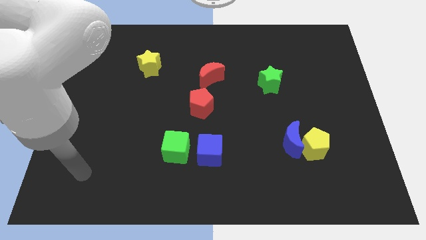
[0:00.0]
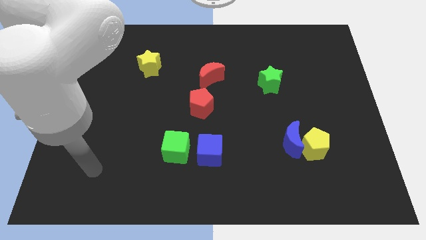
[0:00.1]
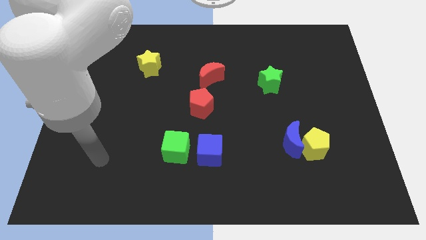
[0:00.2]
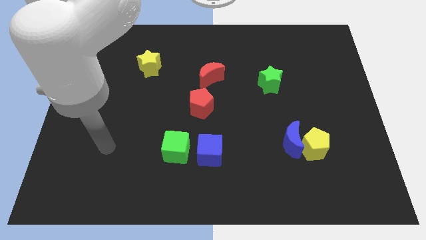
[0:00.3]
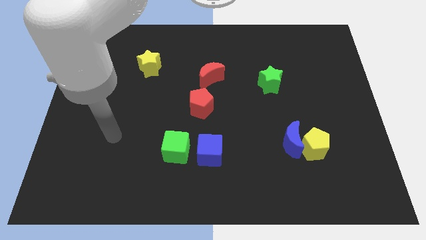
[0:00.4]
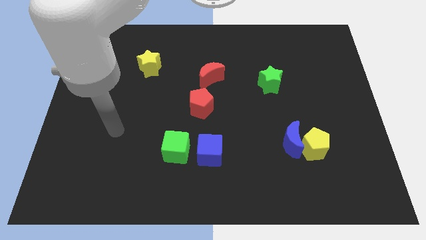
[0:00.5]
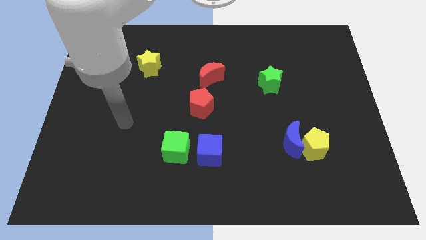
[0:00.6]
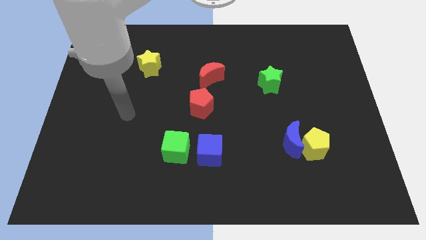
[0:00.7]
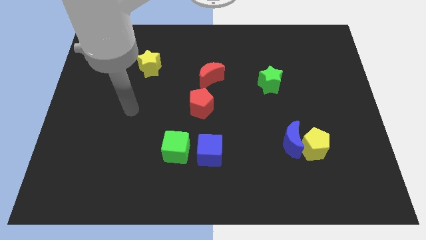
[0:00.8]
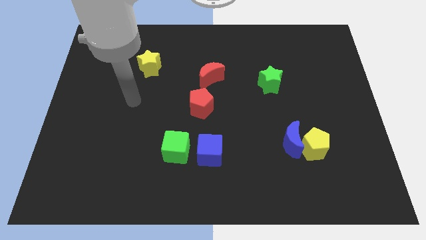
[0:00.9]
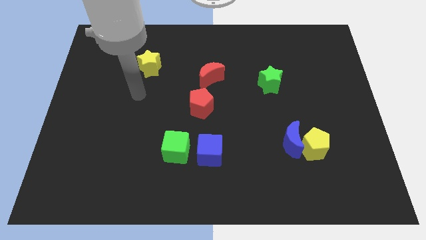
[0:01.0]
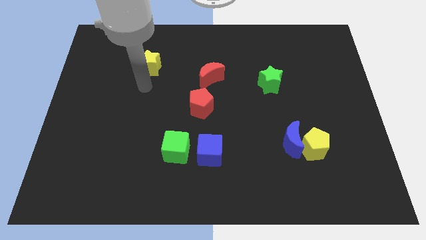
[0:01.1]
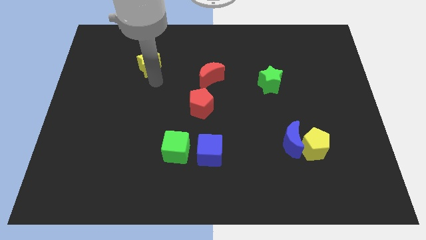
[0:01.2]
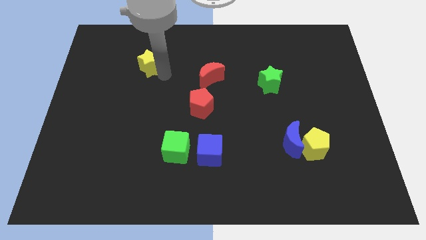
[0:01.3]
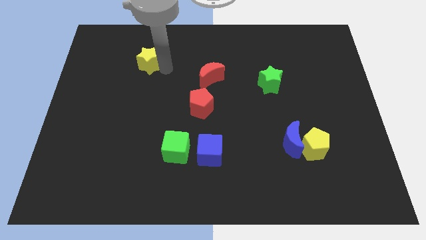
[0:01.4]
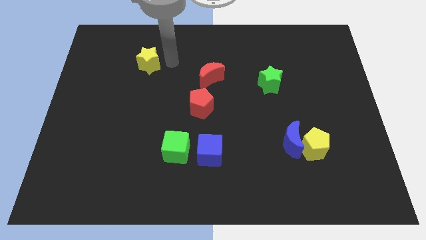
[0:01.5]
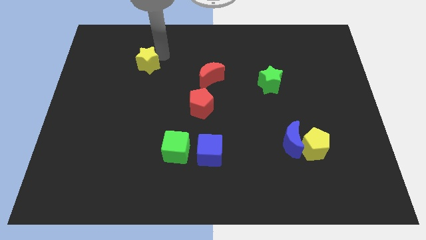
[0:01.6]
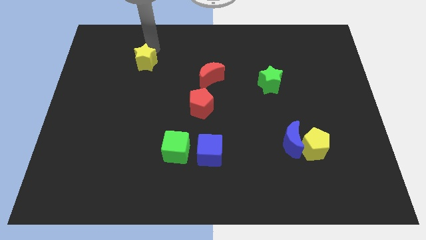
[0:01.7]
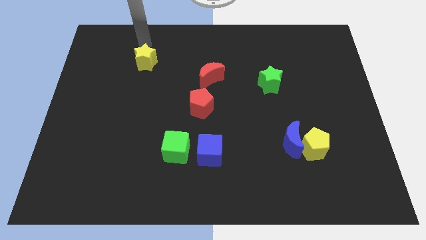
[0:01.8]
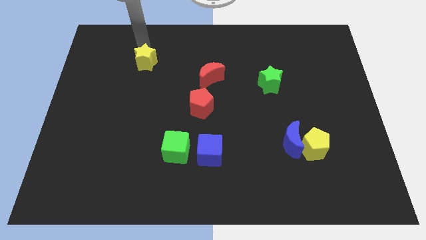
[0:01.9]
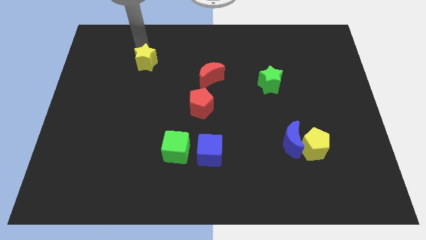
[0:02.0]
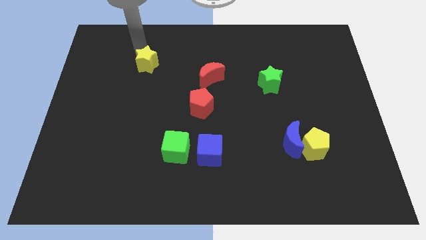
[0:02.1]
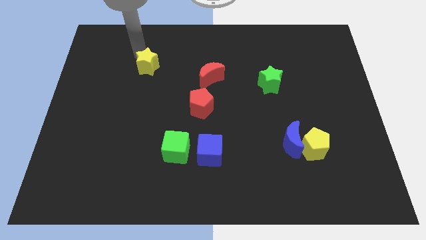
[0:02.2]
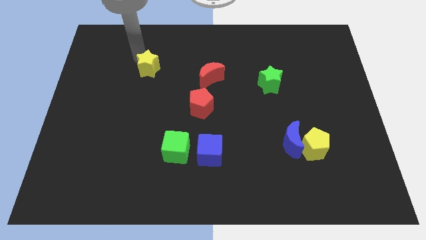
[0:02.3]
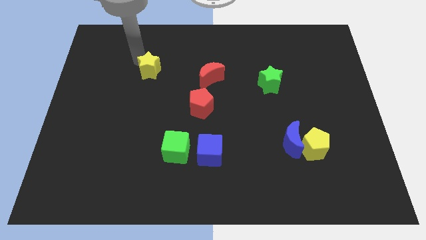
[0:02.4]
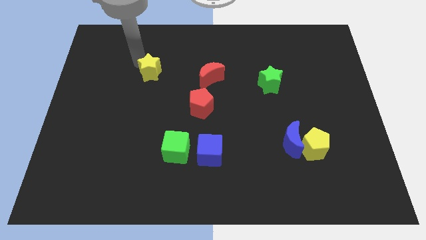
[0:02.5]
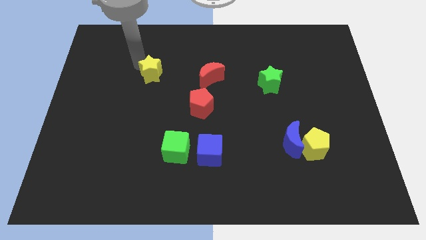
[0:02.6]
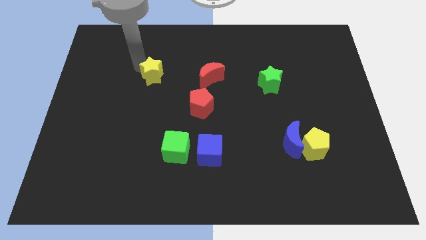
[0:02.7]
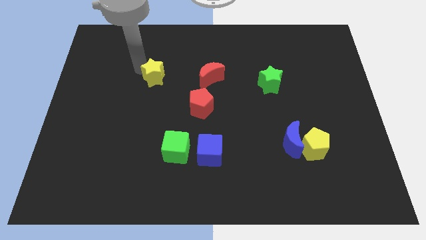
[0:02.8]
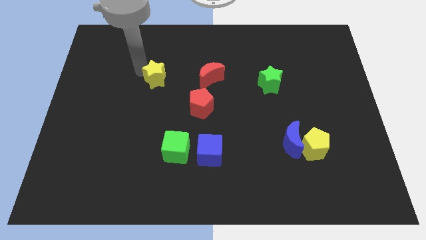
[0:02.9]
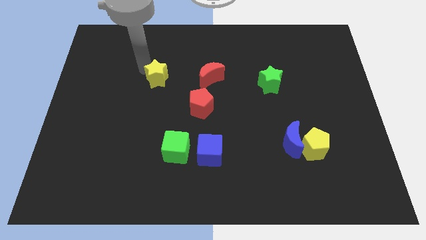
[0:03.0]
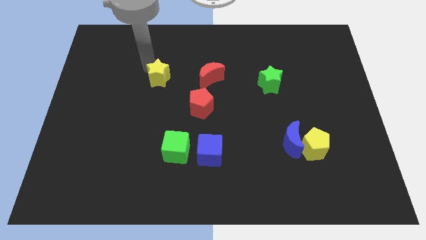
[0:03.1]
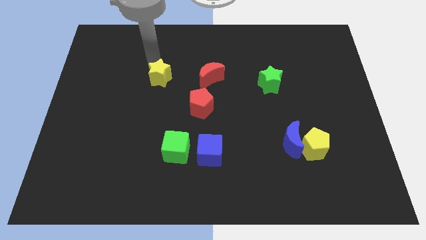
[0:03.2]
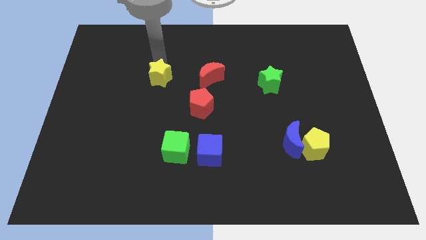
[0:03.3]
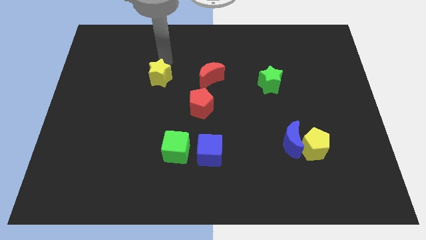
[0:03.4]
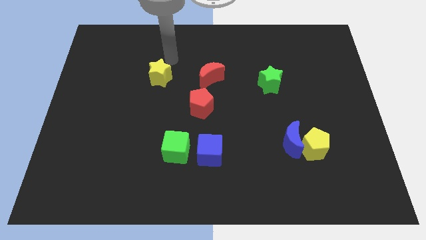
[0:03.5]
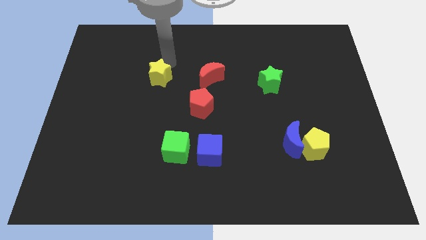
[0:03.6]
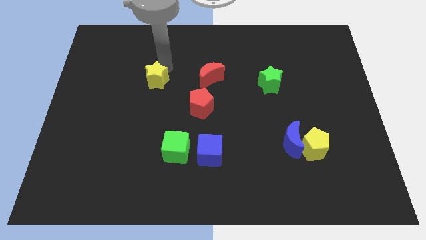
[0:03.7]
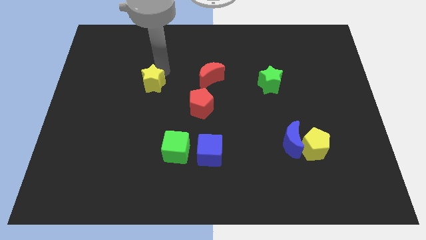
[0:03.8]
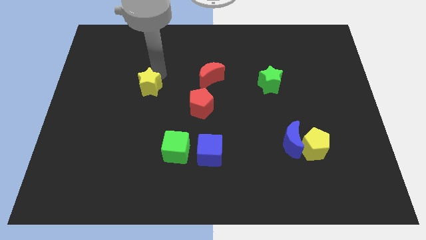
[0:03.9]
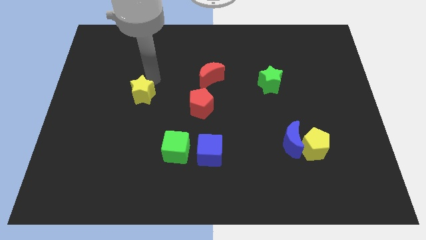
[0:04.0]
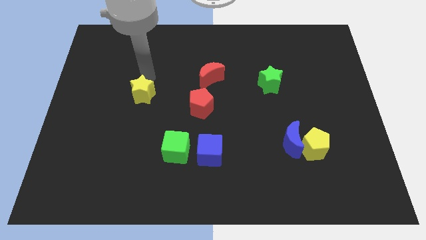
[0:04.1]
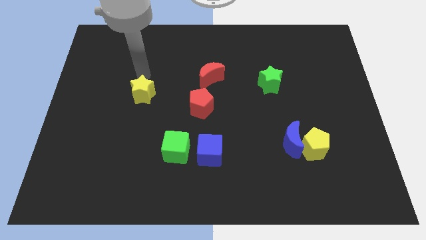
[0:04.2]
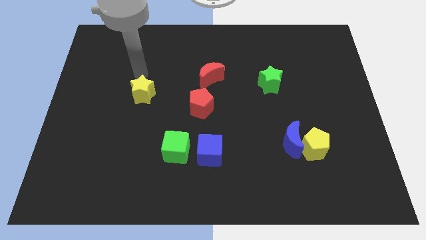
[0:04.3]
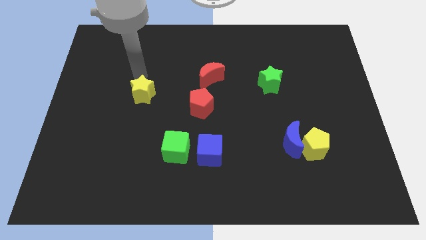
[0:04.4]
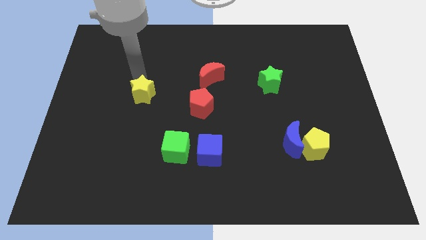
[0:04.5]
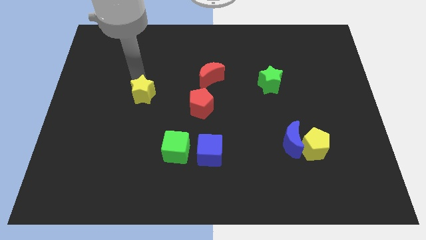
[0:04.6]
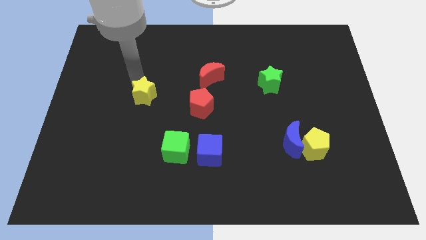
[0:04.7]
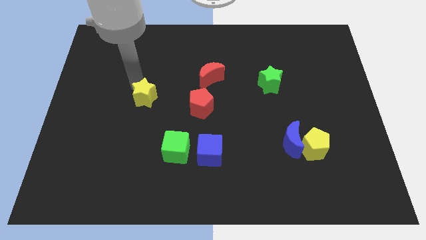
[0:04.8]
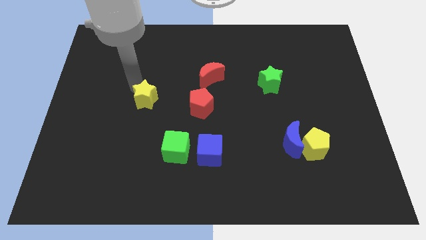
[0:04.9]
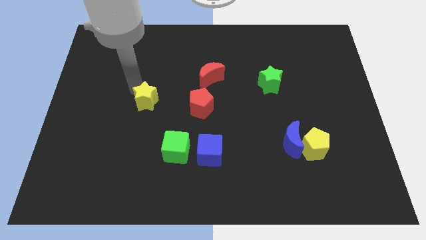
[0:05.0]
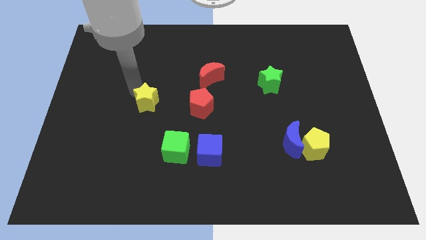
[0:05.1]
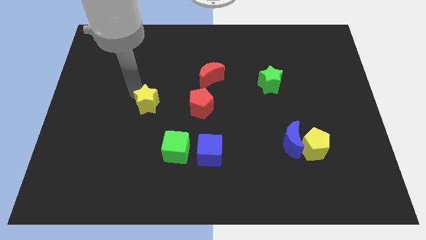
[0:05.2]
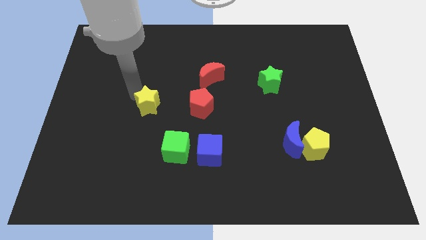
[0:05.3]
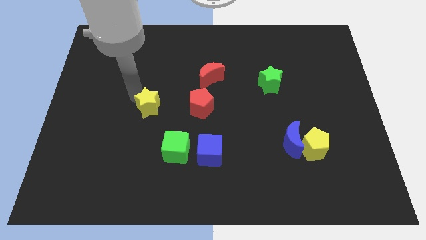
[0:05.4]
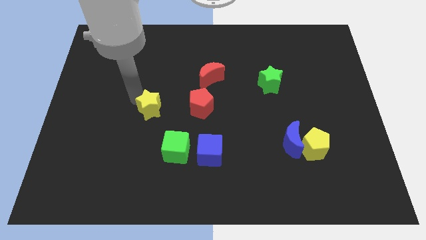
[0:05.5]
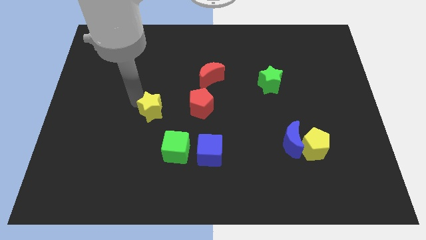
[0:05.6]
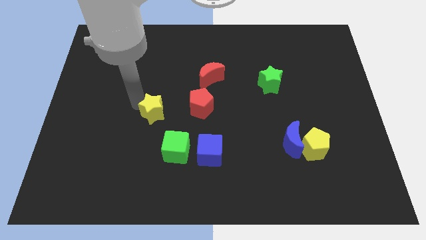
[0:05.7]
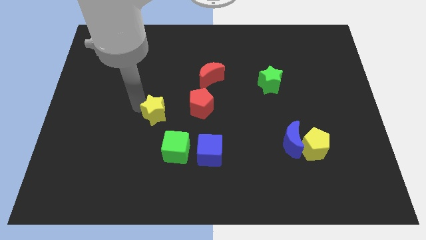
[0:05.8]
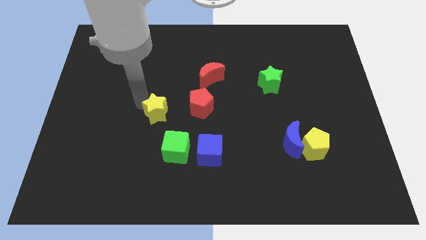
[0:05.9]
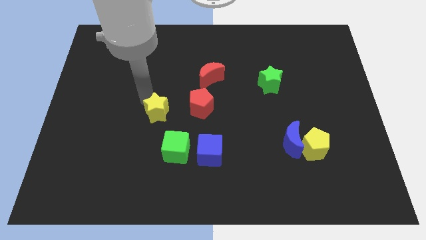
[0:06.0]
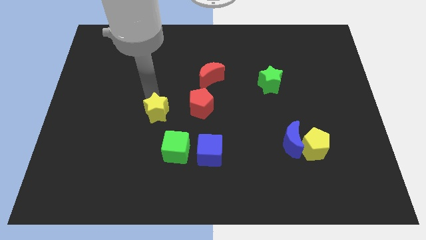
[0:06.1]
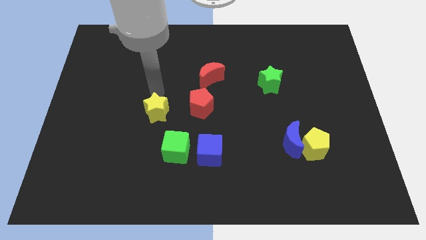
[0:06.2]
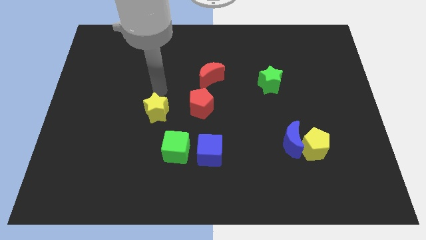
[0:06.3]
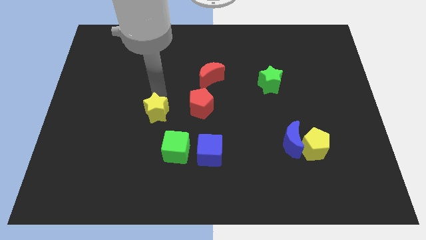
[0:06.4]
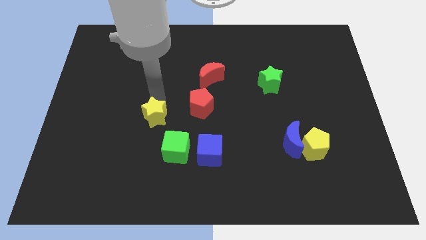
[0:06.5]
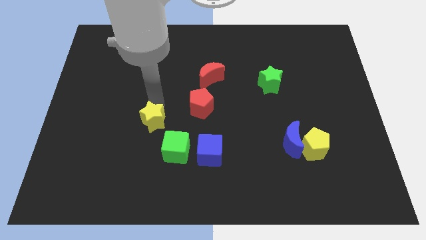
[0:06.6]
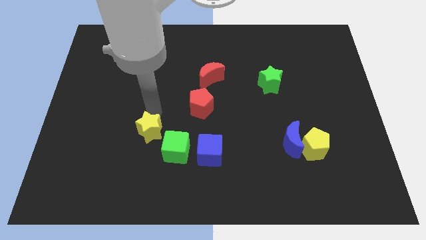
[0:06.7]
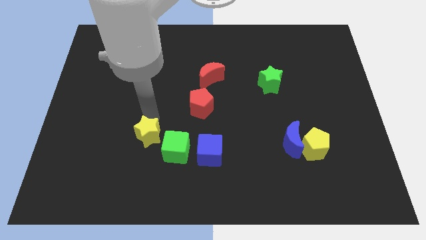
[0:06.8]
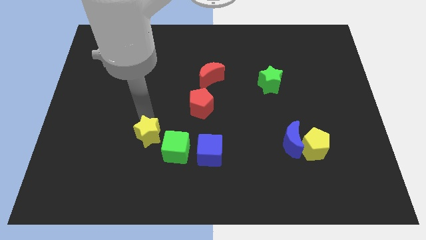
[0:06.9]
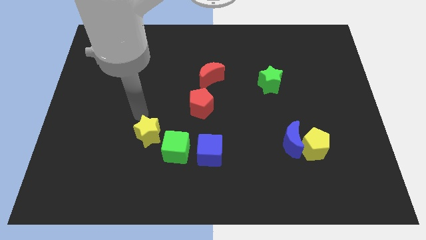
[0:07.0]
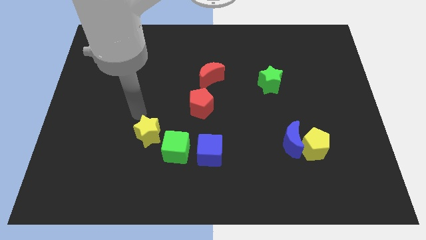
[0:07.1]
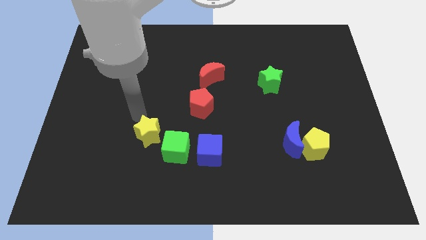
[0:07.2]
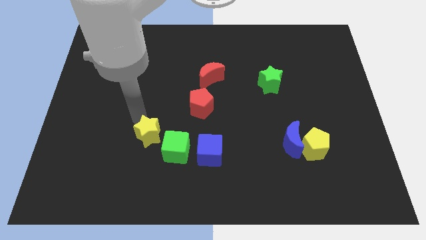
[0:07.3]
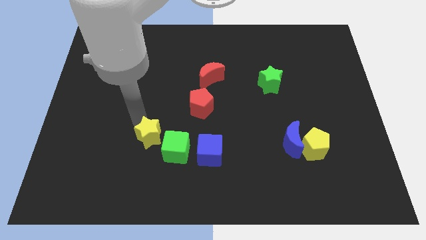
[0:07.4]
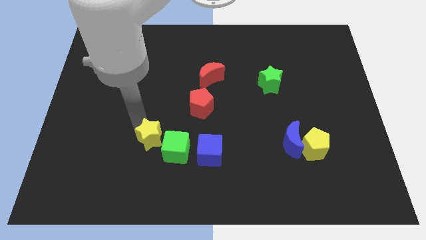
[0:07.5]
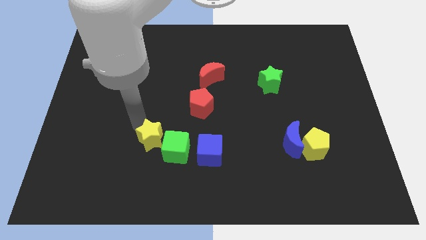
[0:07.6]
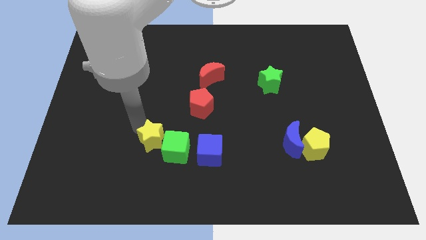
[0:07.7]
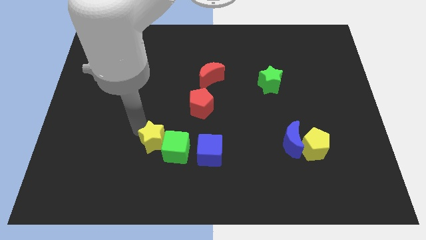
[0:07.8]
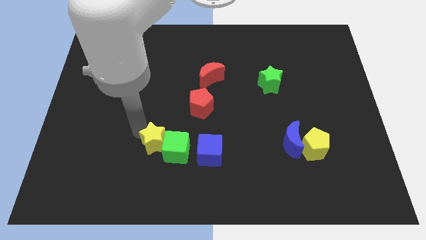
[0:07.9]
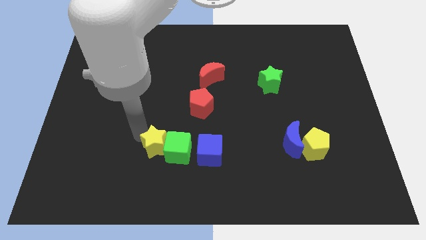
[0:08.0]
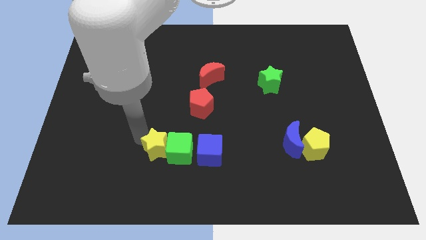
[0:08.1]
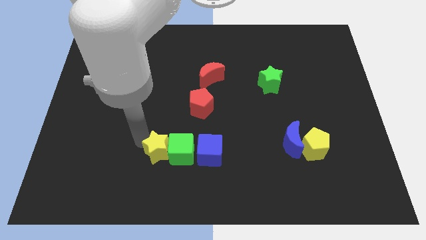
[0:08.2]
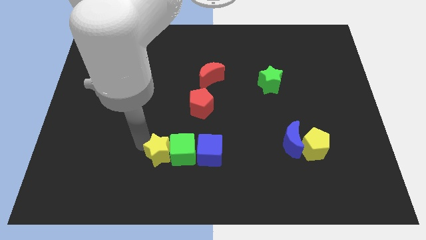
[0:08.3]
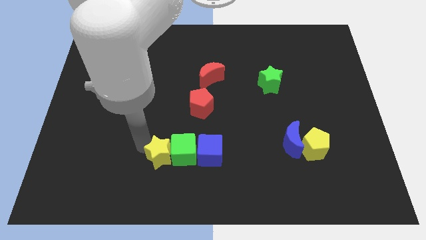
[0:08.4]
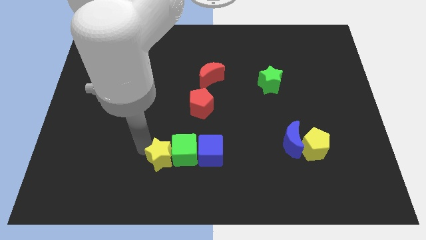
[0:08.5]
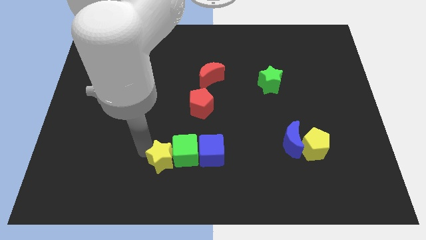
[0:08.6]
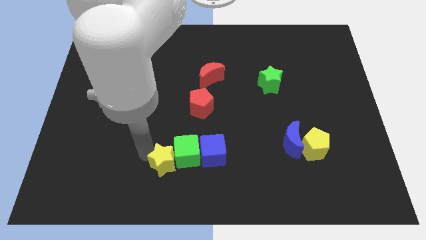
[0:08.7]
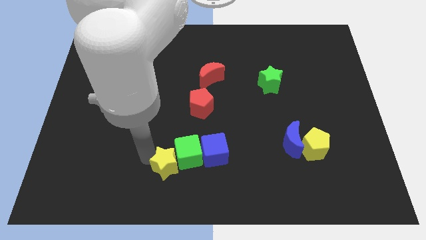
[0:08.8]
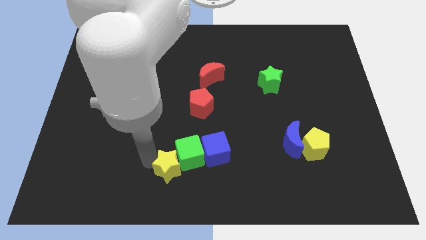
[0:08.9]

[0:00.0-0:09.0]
put the yellow star to the bottom
